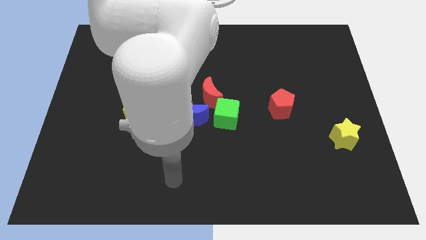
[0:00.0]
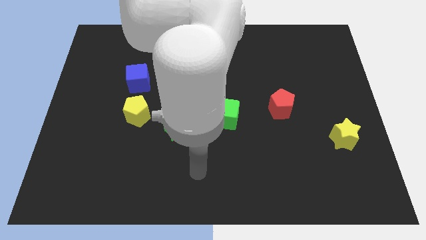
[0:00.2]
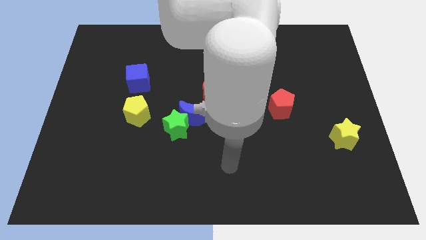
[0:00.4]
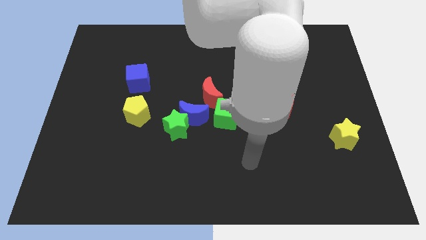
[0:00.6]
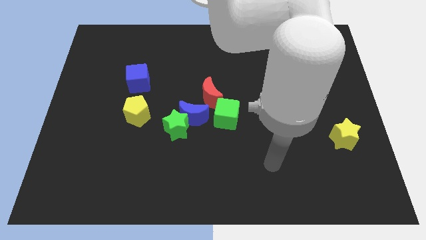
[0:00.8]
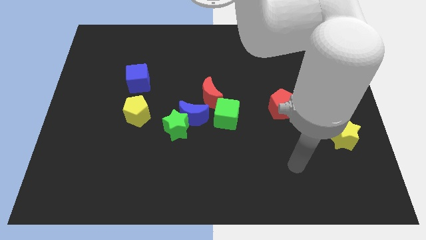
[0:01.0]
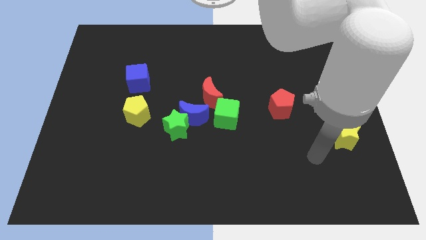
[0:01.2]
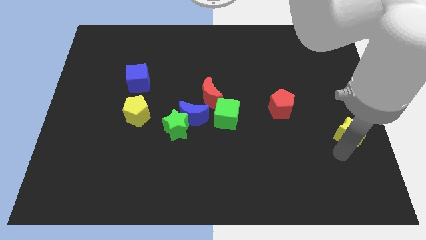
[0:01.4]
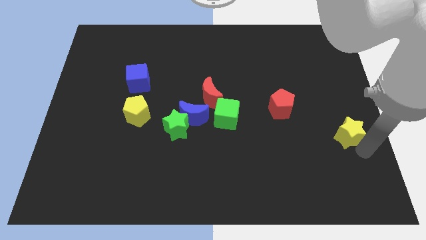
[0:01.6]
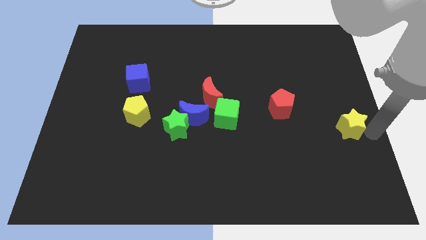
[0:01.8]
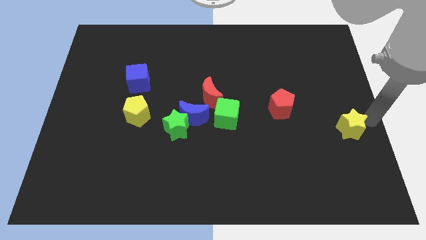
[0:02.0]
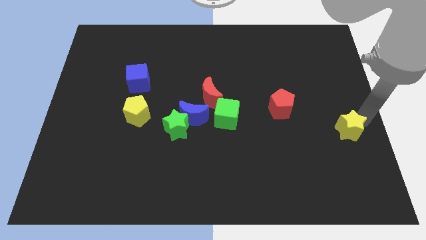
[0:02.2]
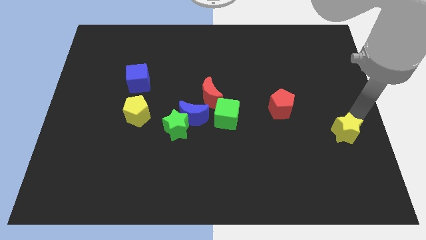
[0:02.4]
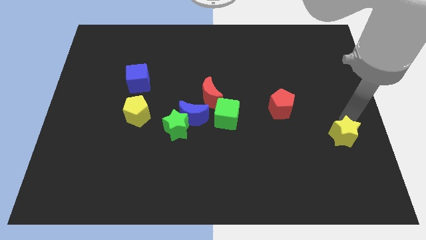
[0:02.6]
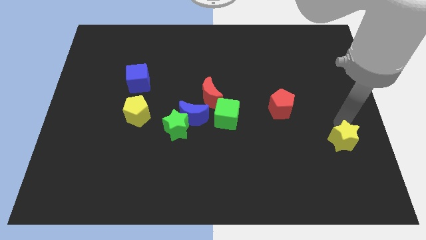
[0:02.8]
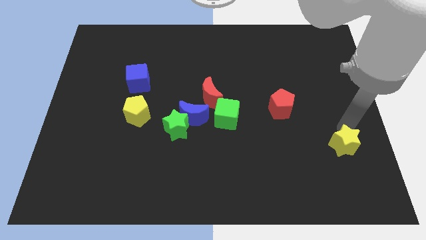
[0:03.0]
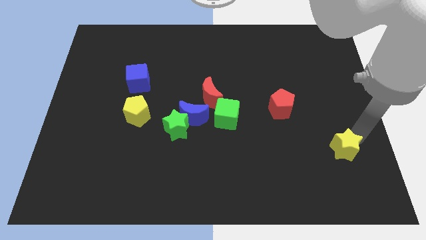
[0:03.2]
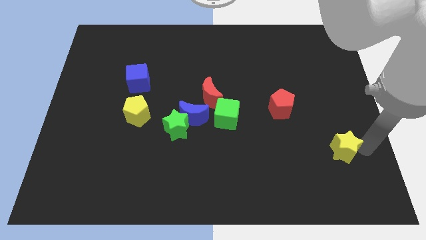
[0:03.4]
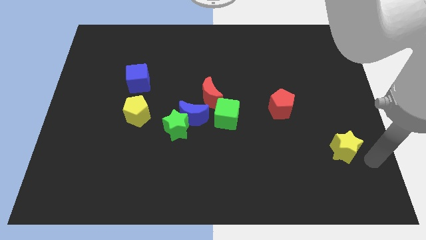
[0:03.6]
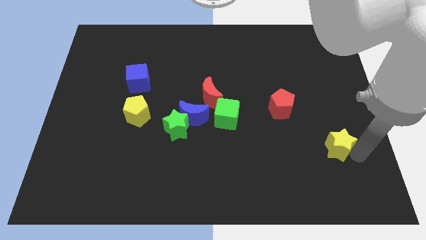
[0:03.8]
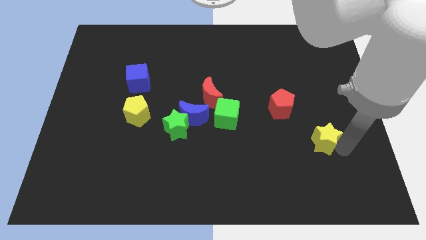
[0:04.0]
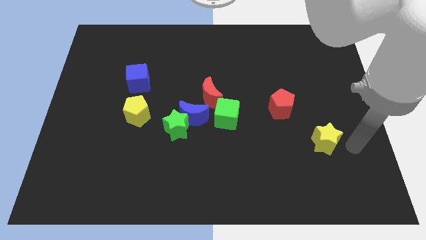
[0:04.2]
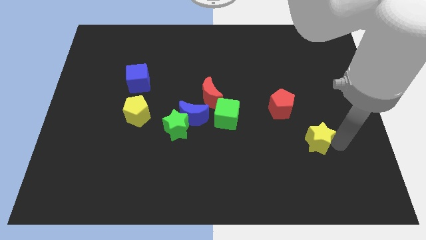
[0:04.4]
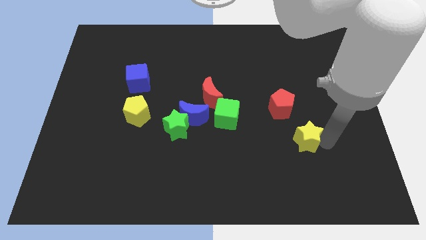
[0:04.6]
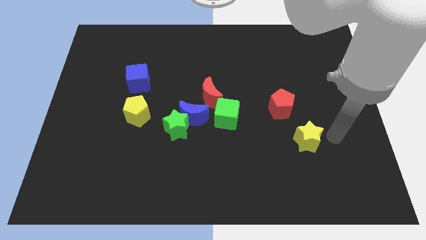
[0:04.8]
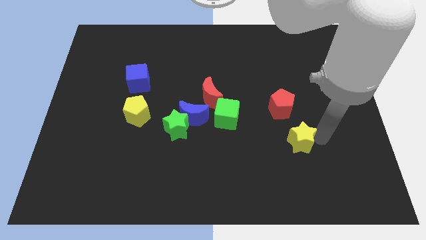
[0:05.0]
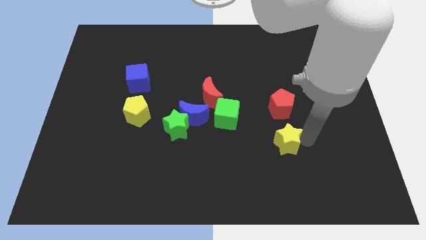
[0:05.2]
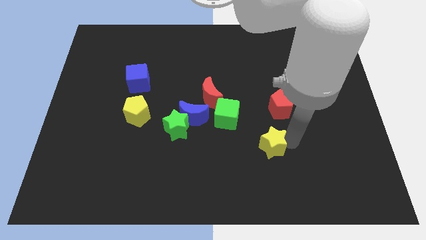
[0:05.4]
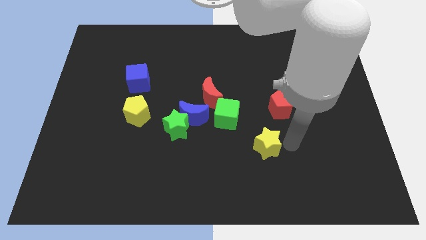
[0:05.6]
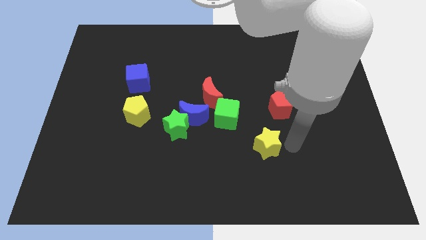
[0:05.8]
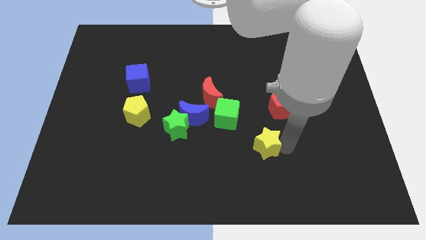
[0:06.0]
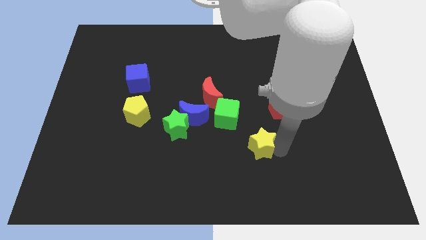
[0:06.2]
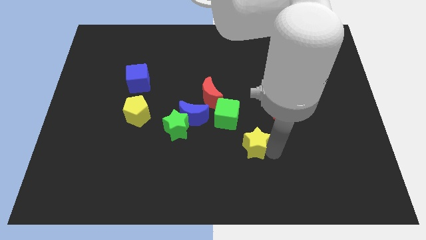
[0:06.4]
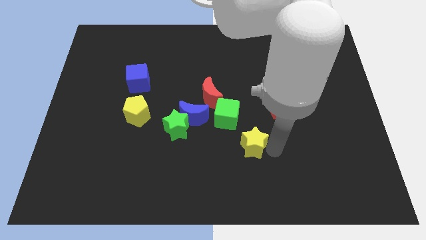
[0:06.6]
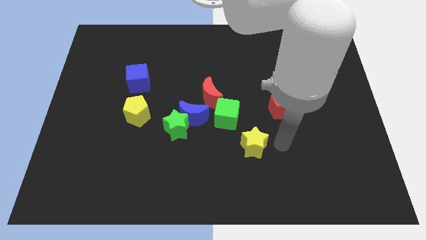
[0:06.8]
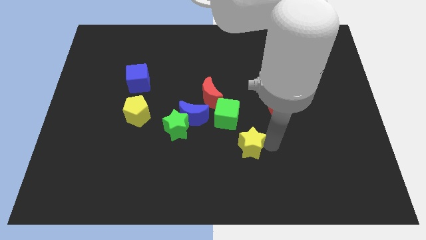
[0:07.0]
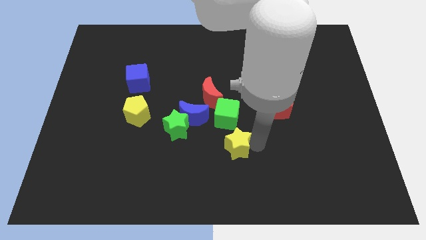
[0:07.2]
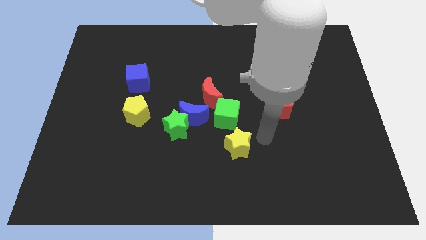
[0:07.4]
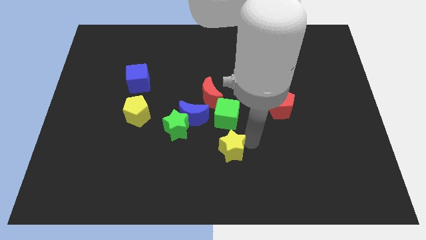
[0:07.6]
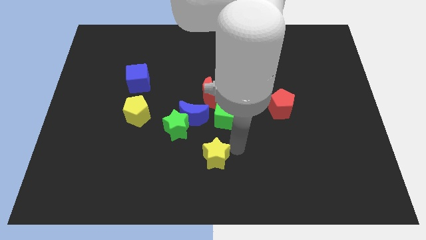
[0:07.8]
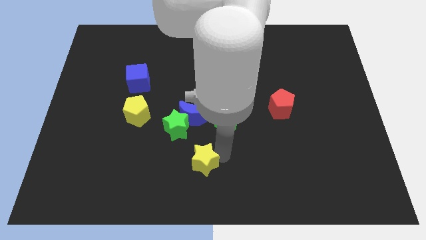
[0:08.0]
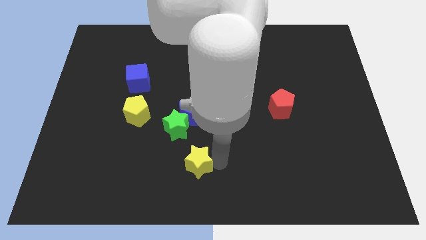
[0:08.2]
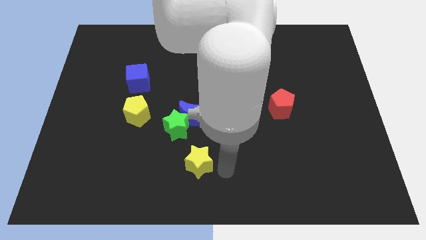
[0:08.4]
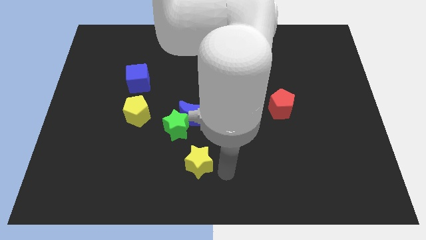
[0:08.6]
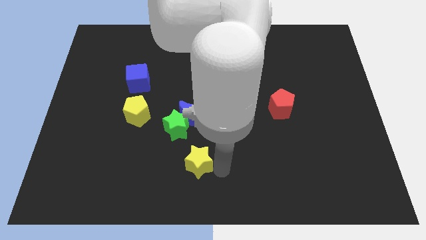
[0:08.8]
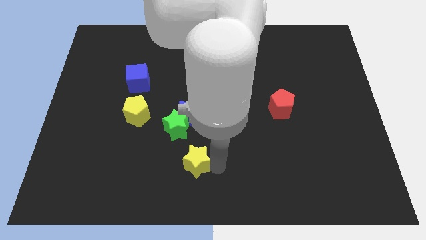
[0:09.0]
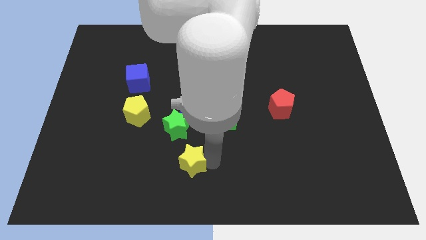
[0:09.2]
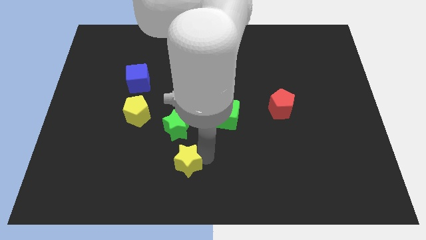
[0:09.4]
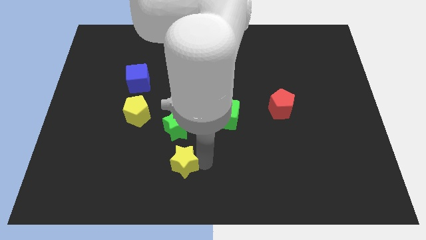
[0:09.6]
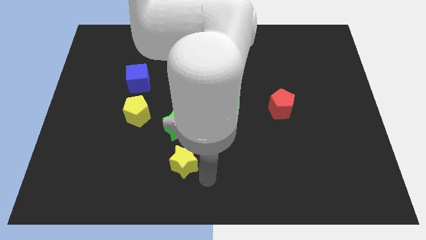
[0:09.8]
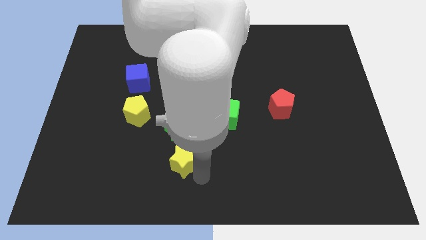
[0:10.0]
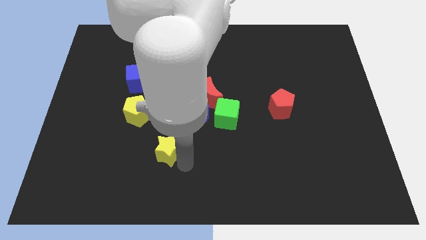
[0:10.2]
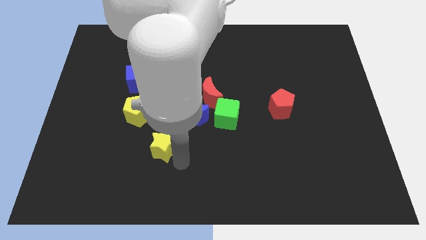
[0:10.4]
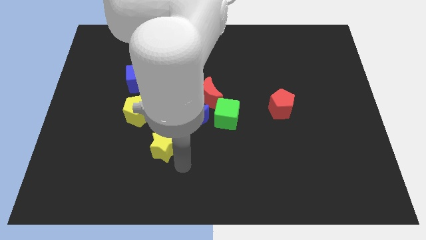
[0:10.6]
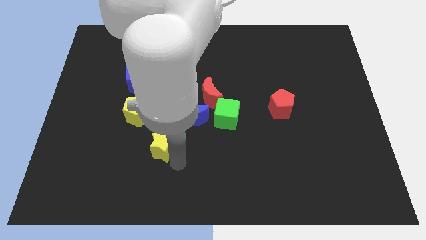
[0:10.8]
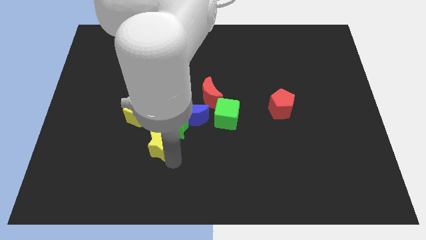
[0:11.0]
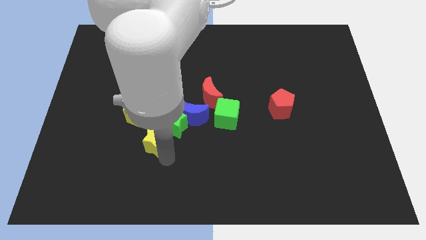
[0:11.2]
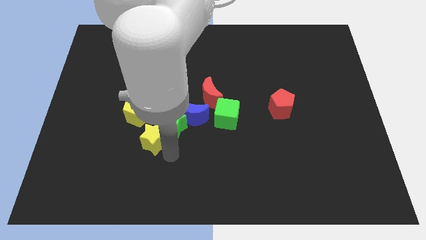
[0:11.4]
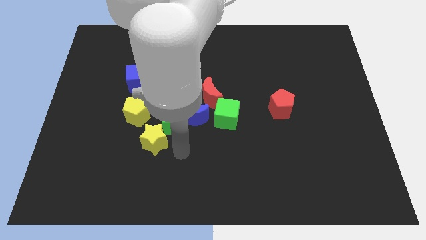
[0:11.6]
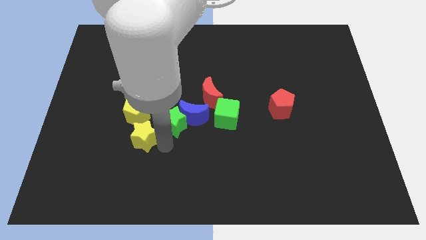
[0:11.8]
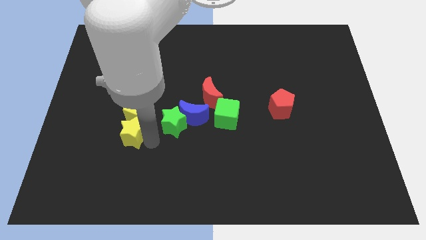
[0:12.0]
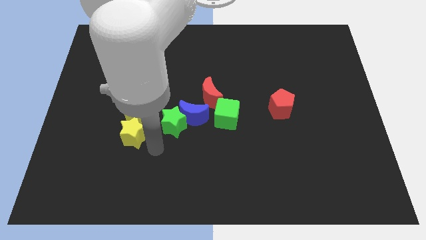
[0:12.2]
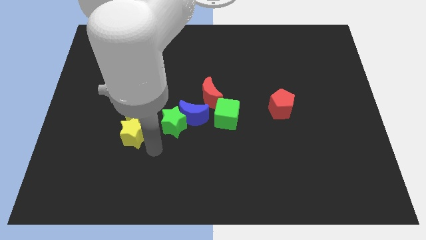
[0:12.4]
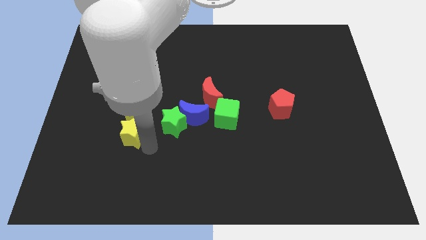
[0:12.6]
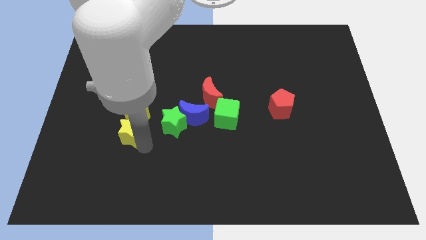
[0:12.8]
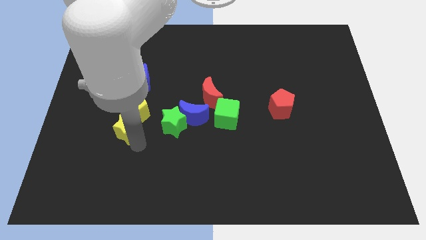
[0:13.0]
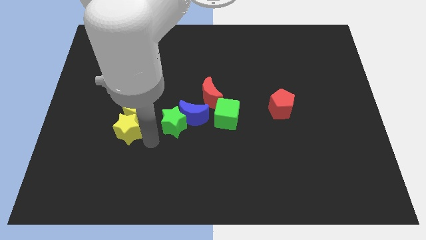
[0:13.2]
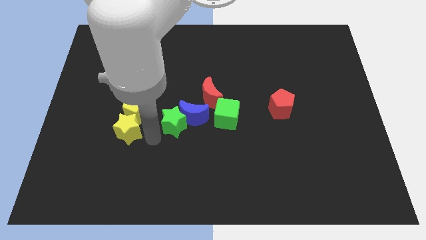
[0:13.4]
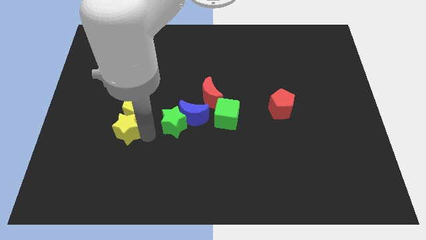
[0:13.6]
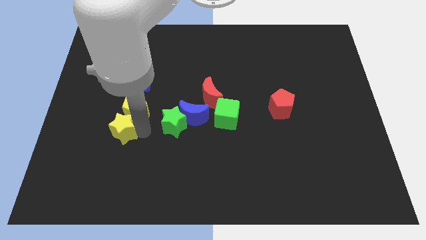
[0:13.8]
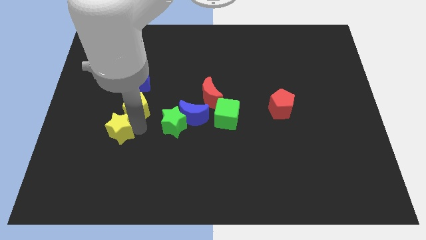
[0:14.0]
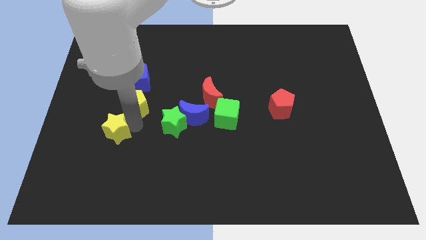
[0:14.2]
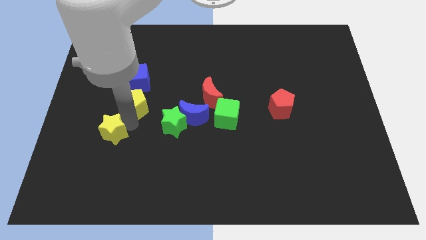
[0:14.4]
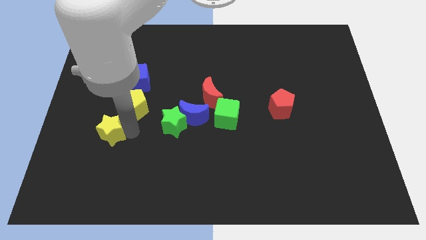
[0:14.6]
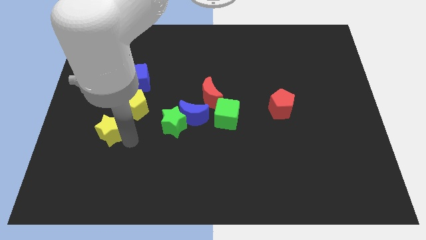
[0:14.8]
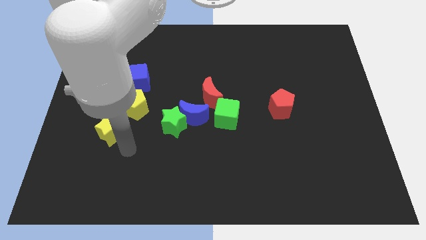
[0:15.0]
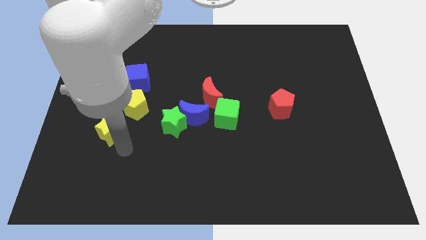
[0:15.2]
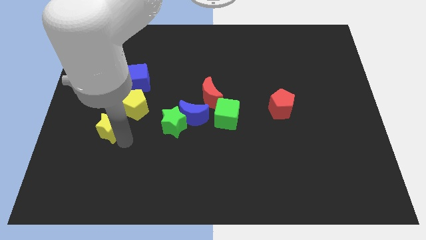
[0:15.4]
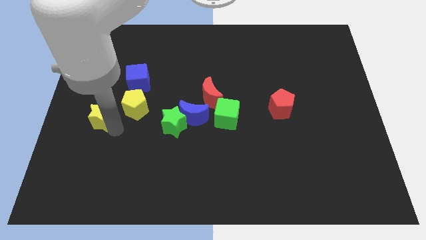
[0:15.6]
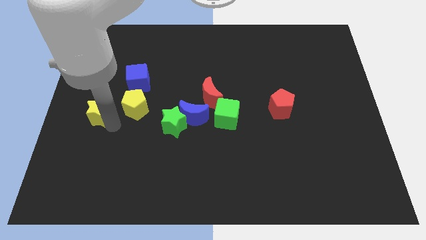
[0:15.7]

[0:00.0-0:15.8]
push the yellow star to the left side
